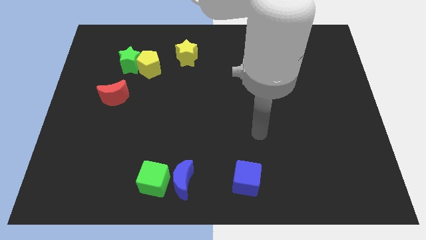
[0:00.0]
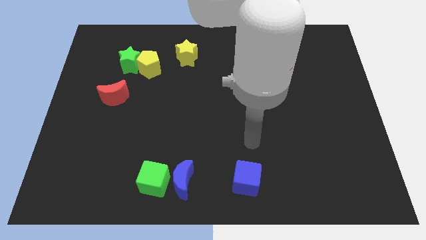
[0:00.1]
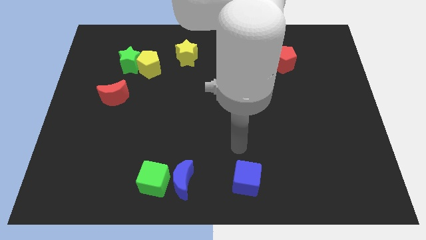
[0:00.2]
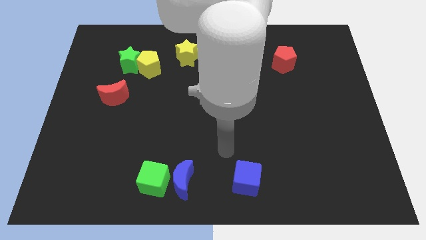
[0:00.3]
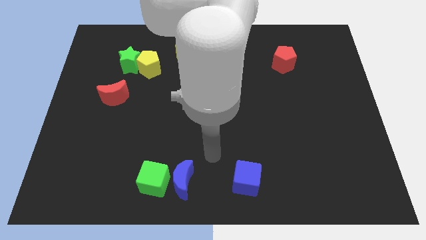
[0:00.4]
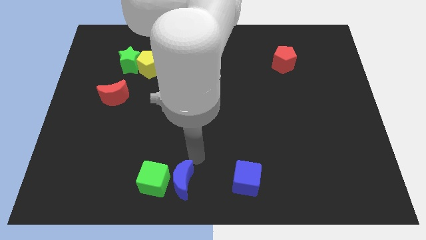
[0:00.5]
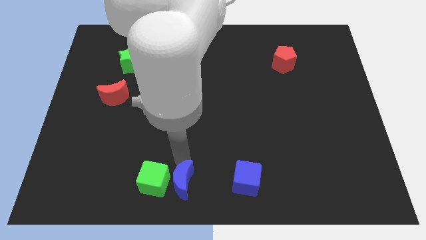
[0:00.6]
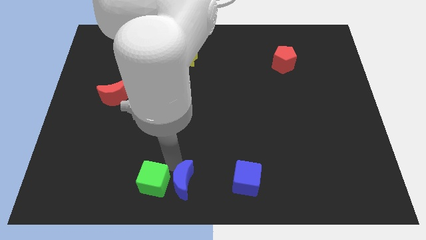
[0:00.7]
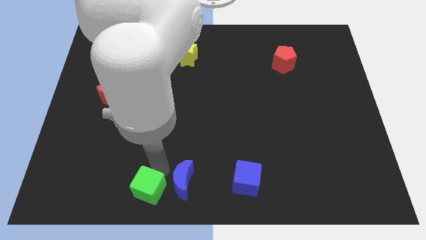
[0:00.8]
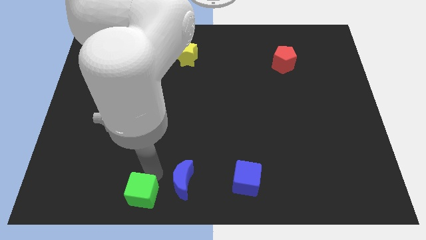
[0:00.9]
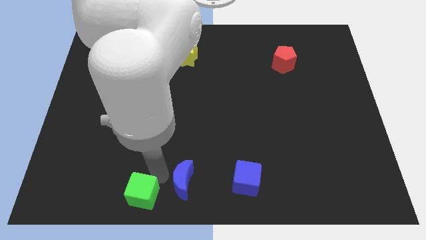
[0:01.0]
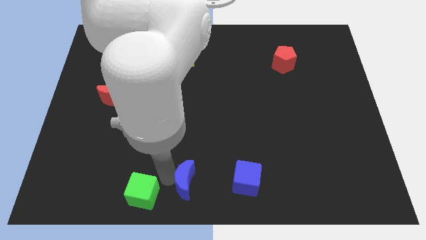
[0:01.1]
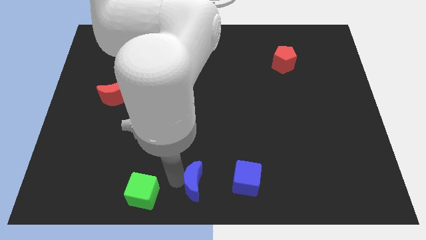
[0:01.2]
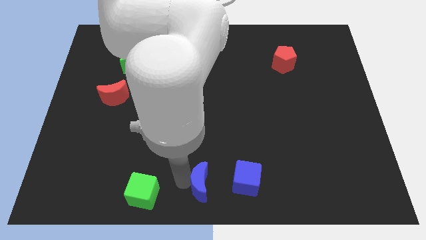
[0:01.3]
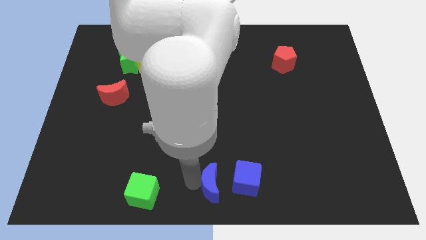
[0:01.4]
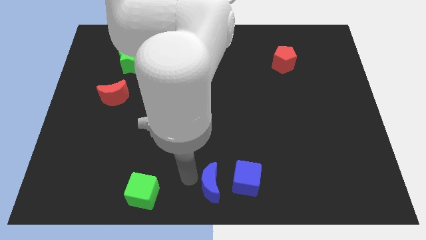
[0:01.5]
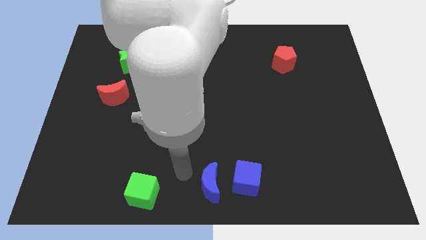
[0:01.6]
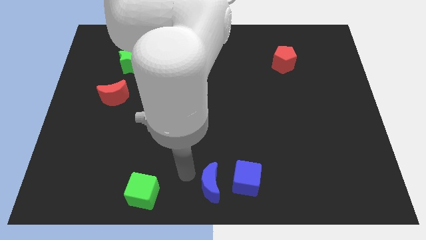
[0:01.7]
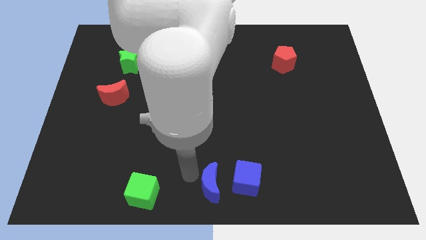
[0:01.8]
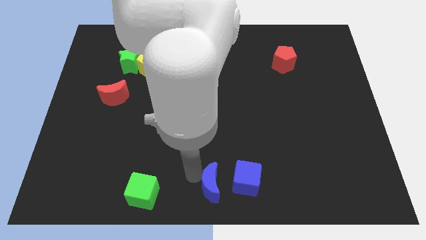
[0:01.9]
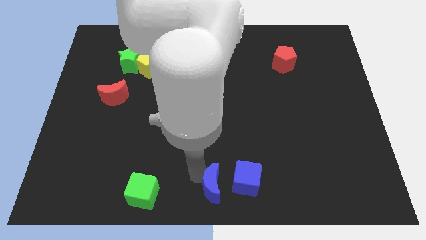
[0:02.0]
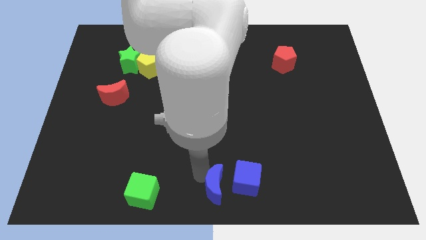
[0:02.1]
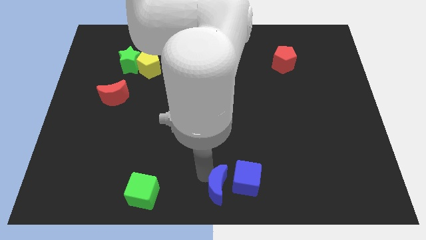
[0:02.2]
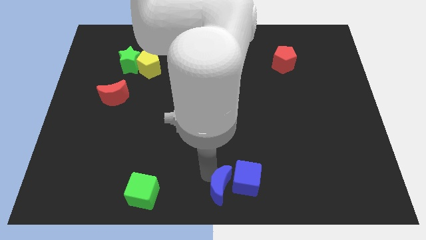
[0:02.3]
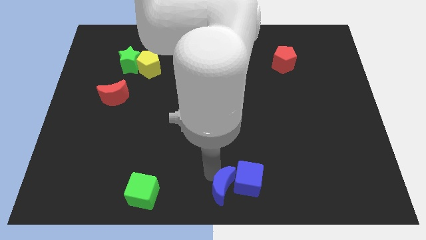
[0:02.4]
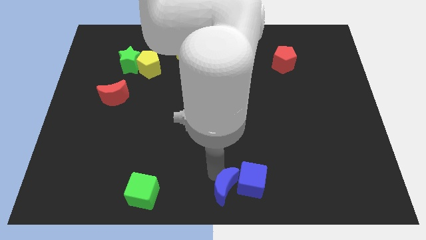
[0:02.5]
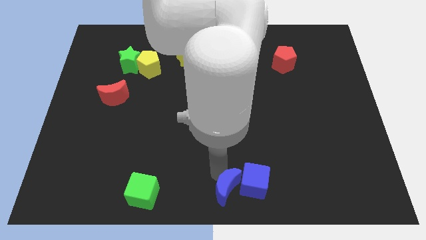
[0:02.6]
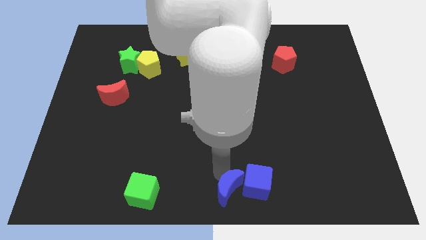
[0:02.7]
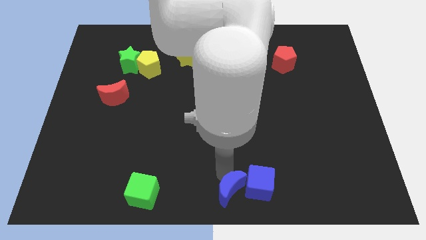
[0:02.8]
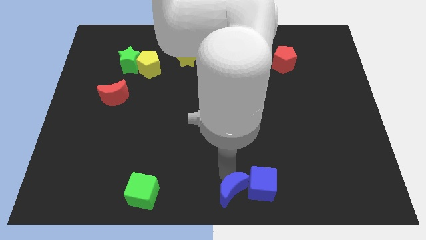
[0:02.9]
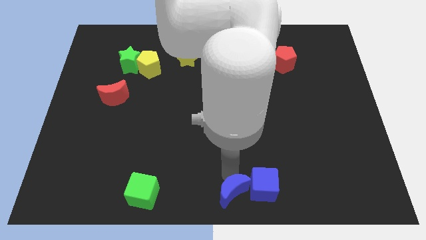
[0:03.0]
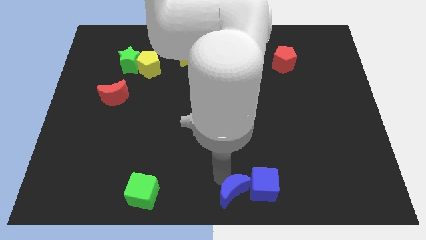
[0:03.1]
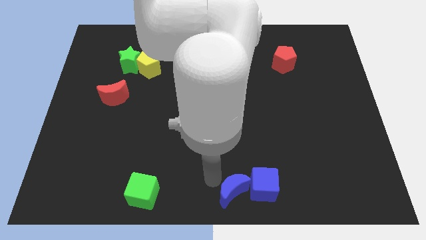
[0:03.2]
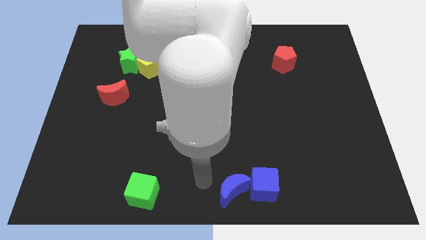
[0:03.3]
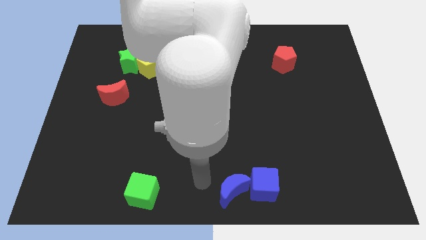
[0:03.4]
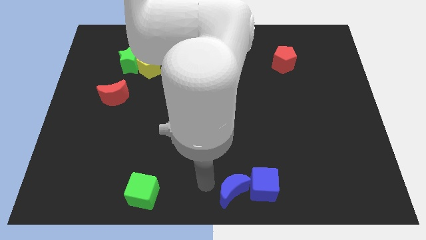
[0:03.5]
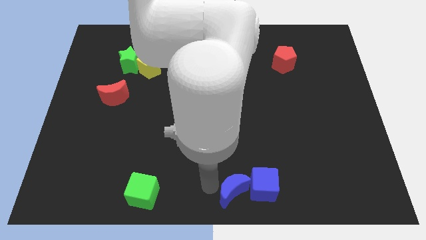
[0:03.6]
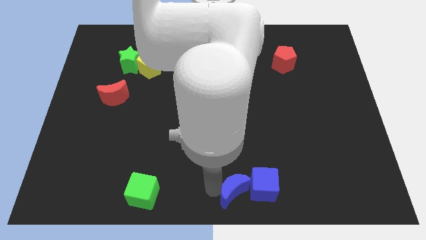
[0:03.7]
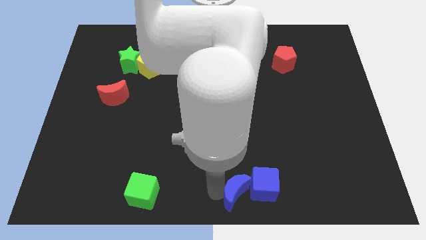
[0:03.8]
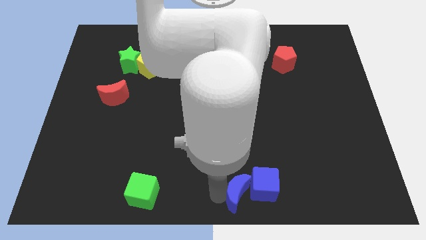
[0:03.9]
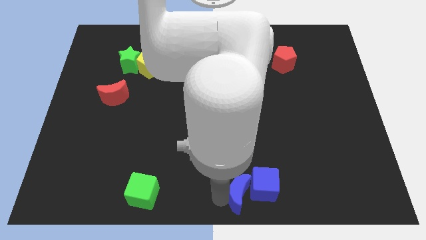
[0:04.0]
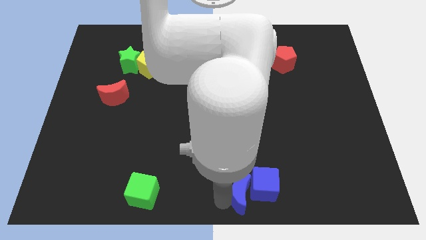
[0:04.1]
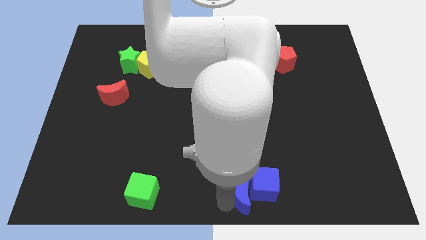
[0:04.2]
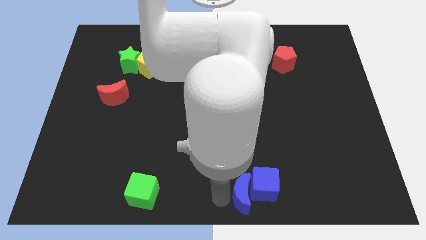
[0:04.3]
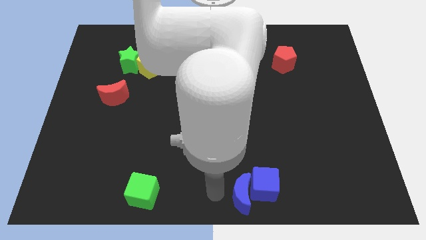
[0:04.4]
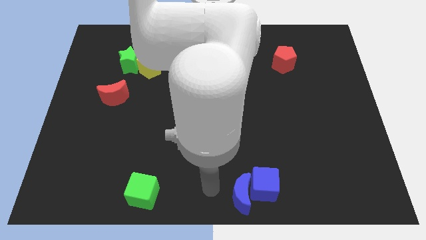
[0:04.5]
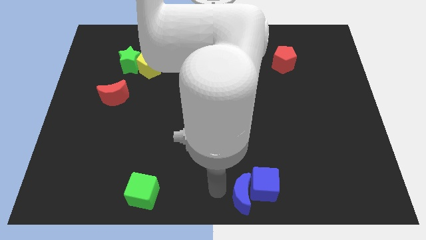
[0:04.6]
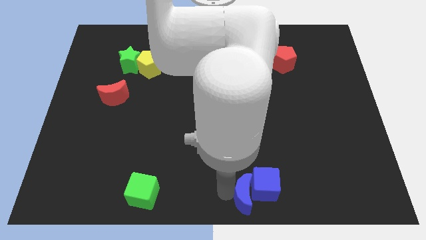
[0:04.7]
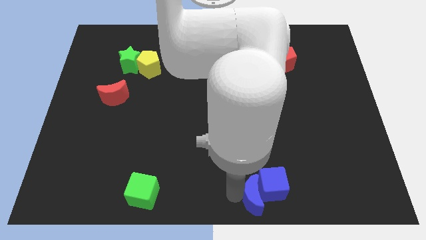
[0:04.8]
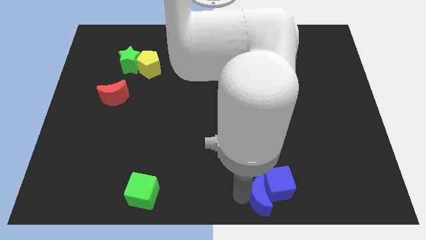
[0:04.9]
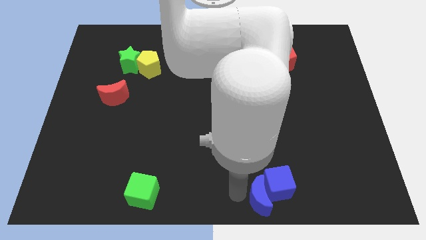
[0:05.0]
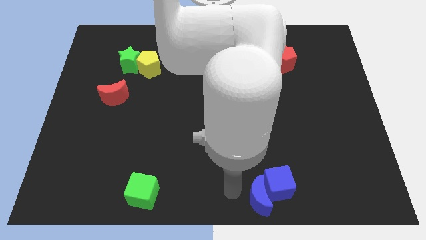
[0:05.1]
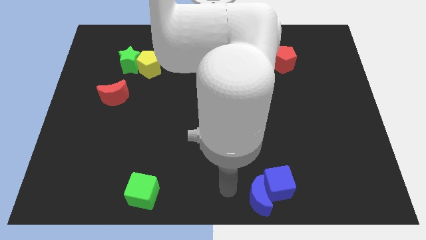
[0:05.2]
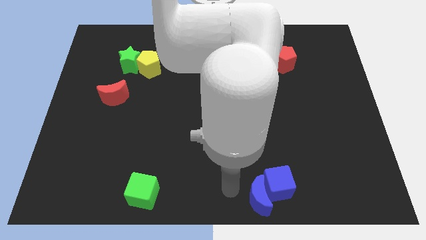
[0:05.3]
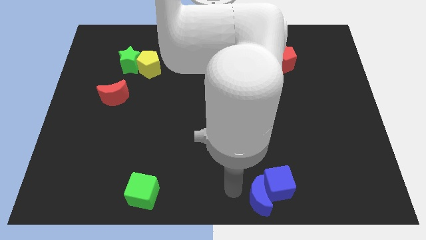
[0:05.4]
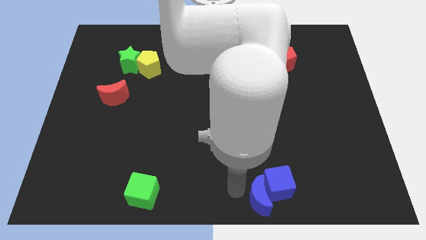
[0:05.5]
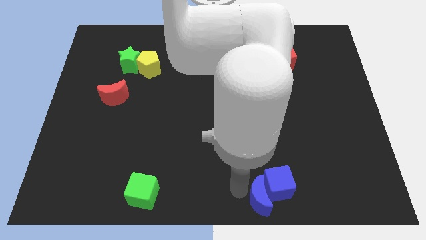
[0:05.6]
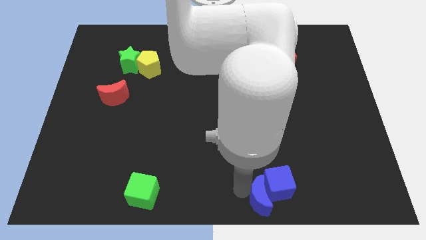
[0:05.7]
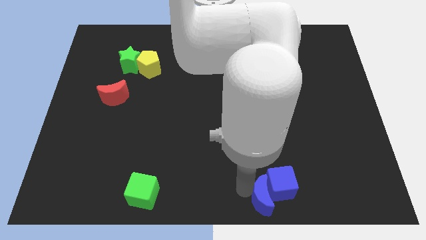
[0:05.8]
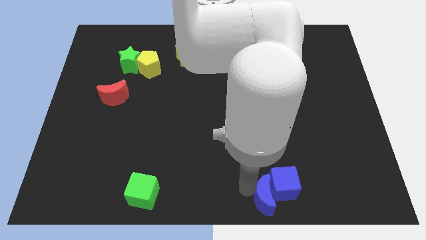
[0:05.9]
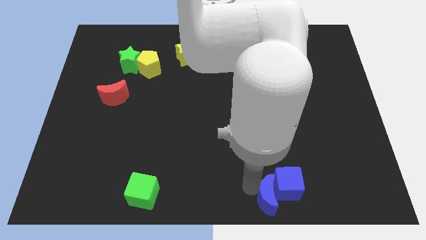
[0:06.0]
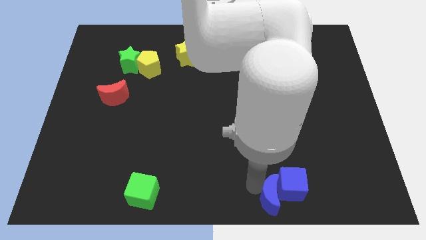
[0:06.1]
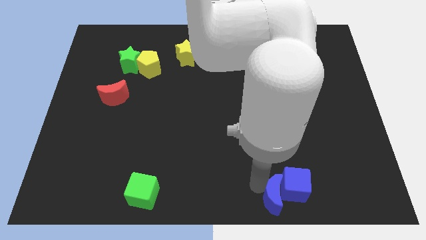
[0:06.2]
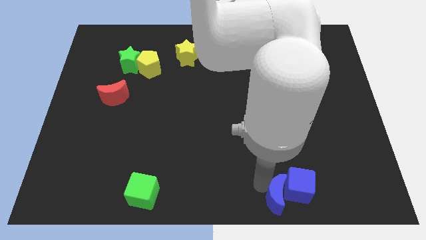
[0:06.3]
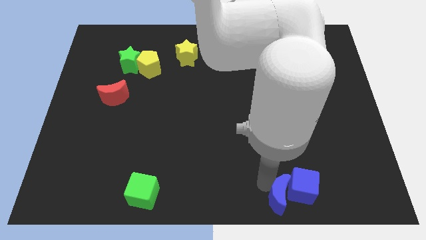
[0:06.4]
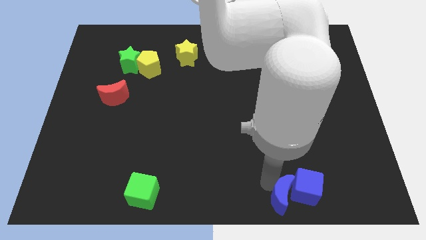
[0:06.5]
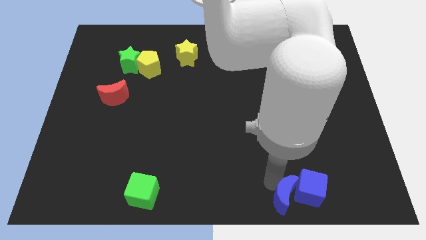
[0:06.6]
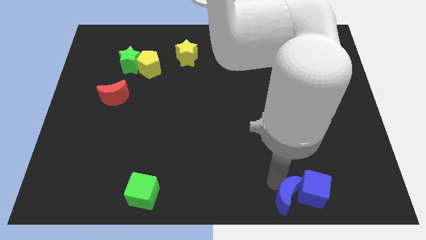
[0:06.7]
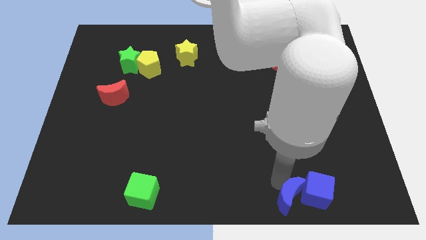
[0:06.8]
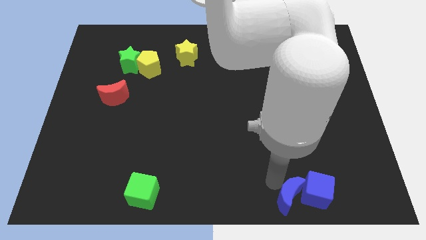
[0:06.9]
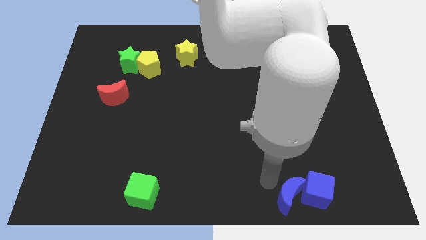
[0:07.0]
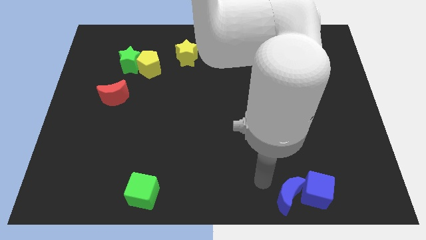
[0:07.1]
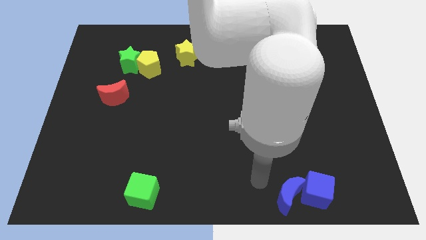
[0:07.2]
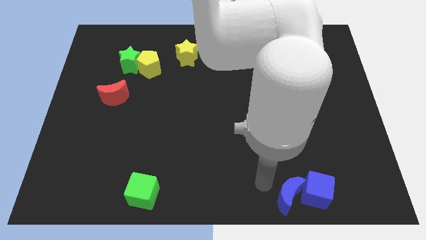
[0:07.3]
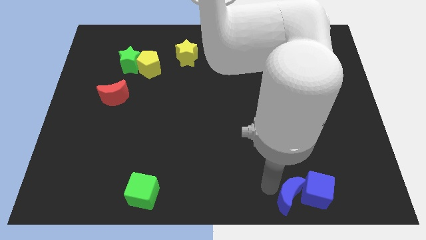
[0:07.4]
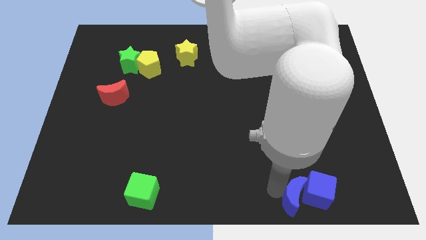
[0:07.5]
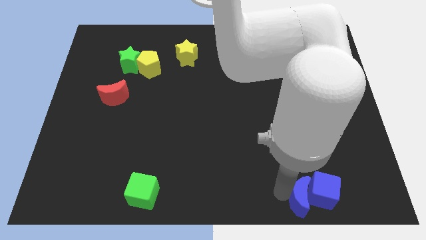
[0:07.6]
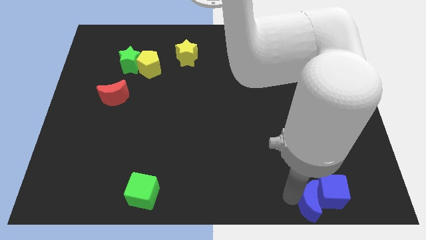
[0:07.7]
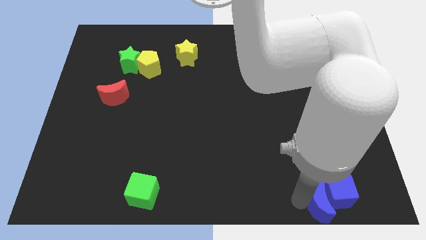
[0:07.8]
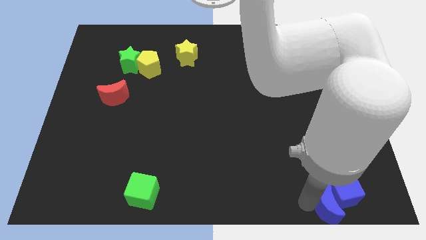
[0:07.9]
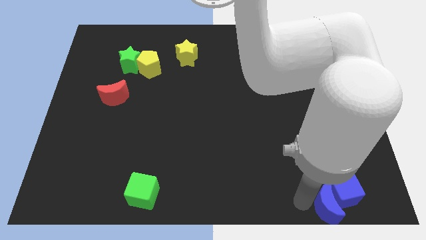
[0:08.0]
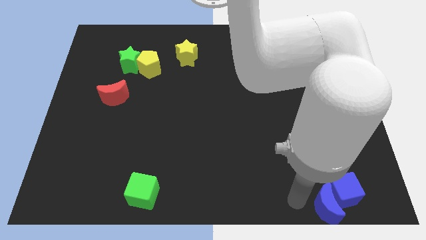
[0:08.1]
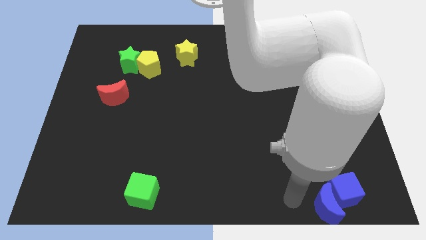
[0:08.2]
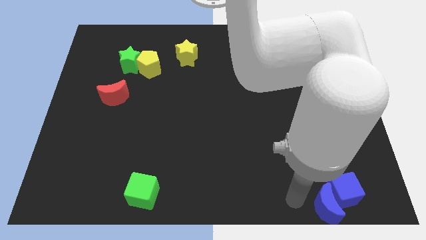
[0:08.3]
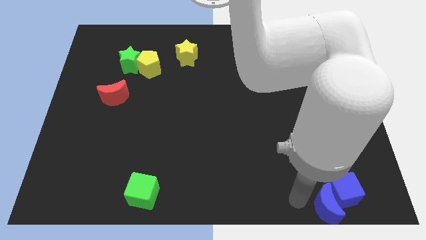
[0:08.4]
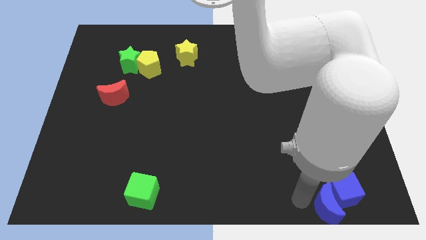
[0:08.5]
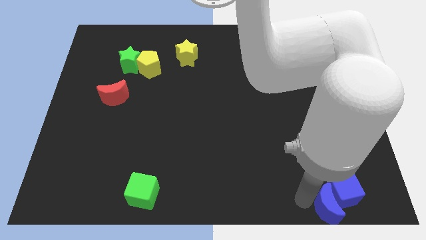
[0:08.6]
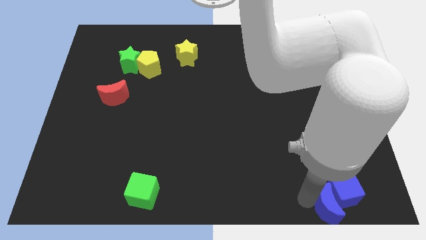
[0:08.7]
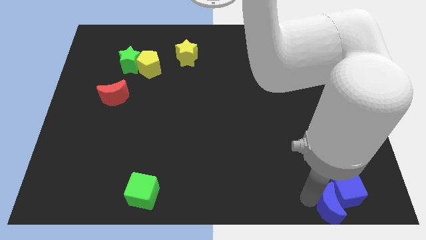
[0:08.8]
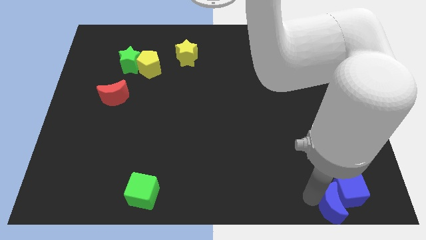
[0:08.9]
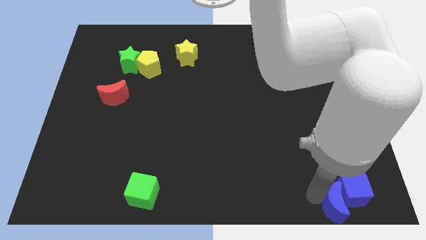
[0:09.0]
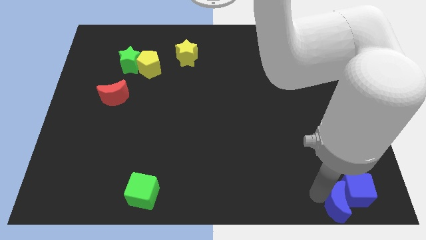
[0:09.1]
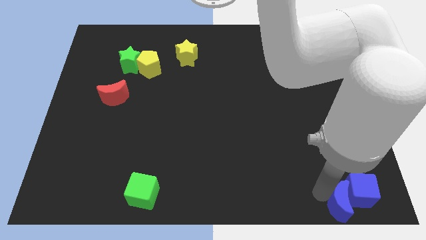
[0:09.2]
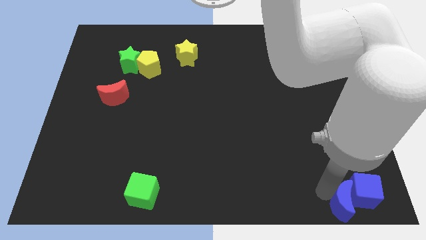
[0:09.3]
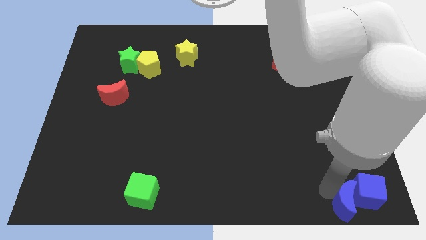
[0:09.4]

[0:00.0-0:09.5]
move the blue moon to the bottom right
